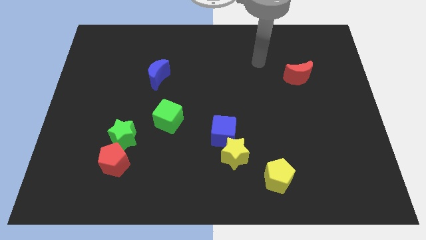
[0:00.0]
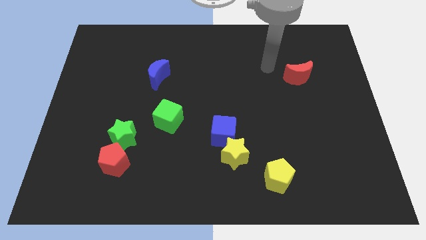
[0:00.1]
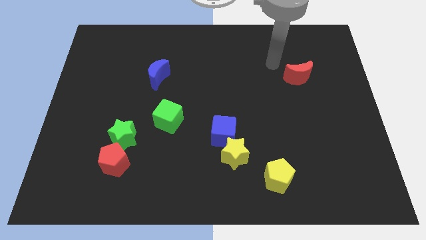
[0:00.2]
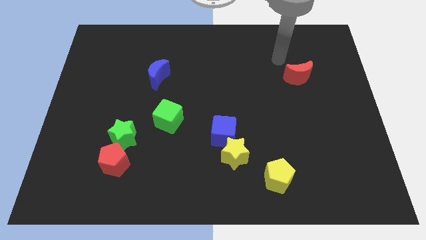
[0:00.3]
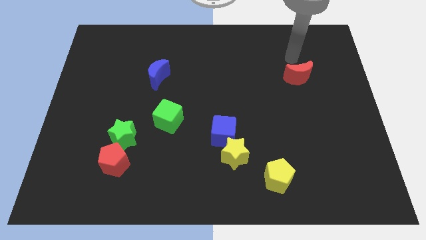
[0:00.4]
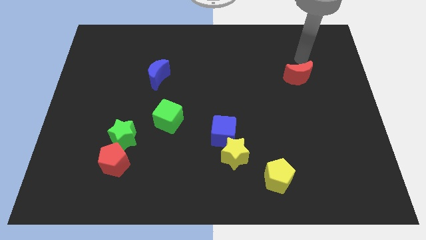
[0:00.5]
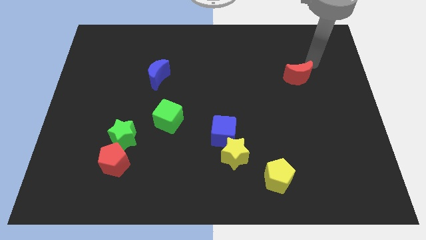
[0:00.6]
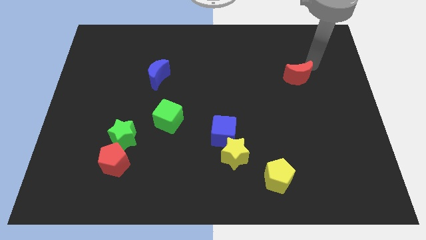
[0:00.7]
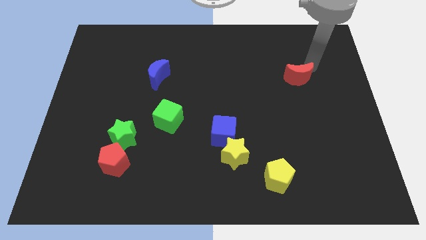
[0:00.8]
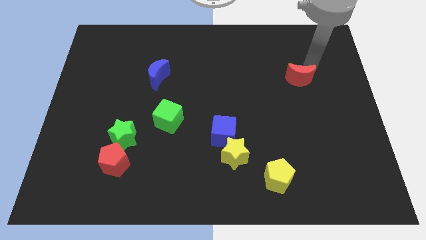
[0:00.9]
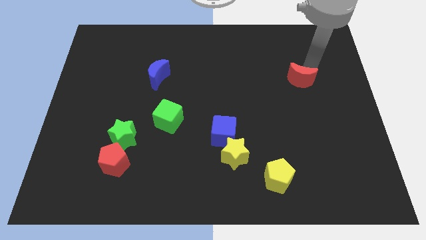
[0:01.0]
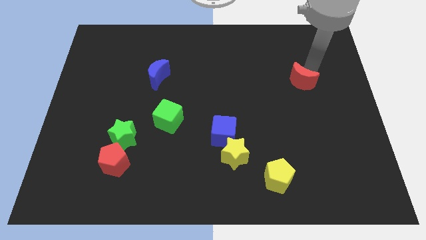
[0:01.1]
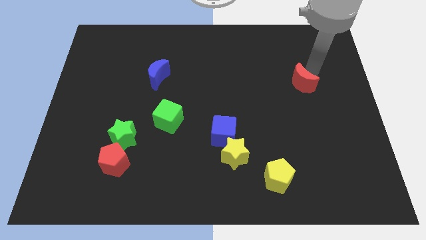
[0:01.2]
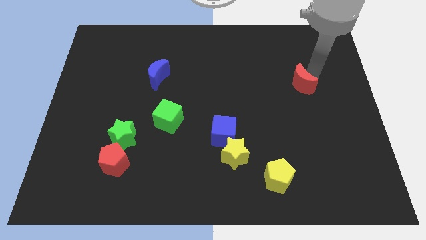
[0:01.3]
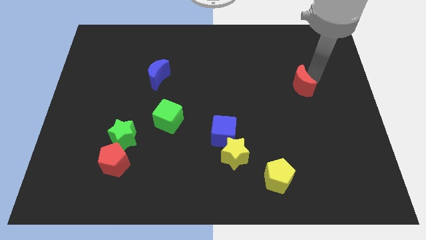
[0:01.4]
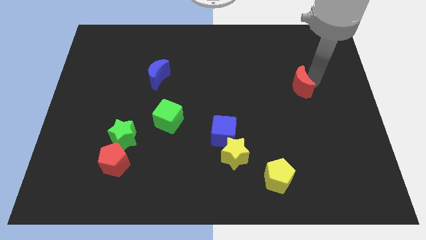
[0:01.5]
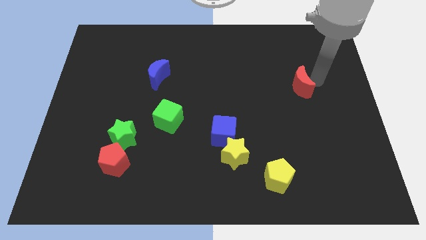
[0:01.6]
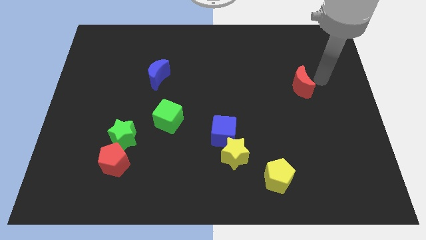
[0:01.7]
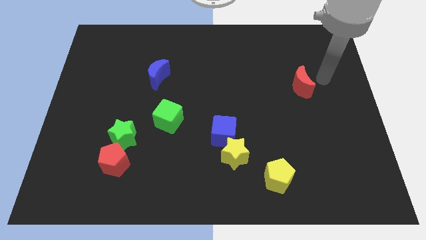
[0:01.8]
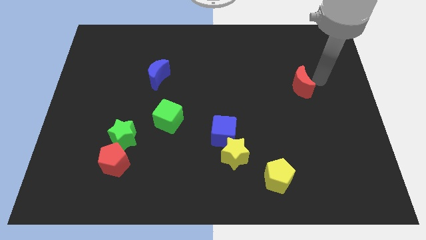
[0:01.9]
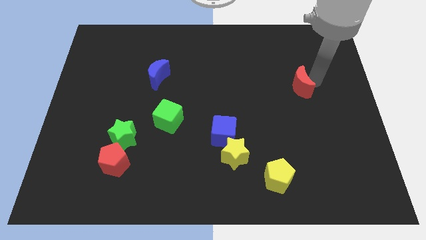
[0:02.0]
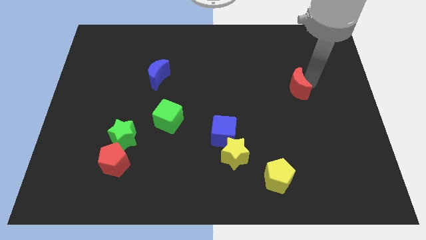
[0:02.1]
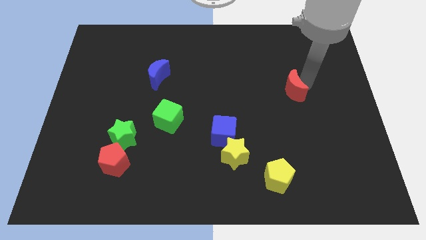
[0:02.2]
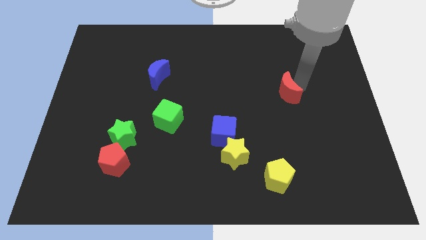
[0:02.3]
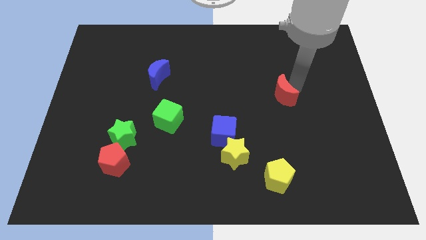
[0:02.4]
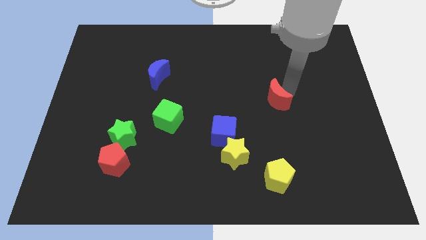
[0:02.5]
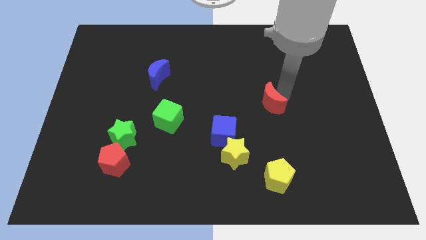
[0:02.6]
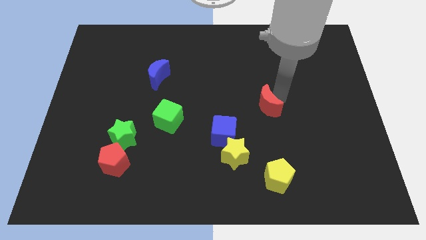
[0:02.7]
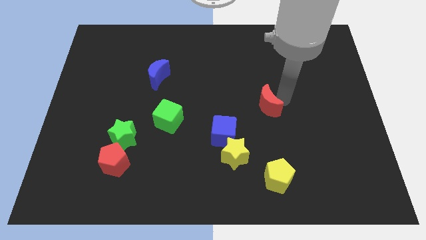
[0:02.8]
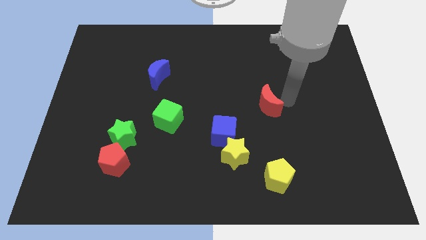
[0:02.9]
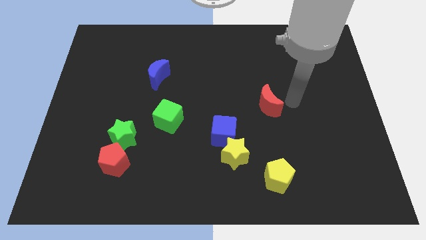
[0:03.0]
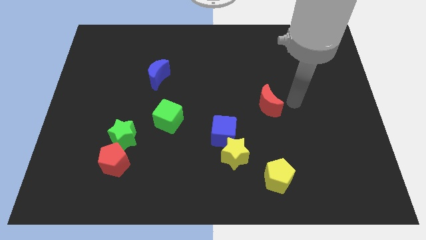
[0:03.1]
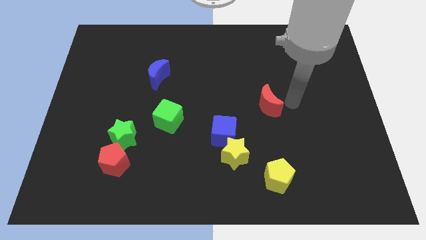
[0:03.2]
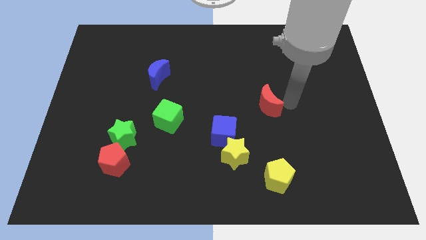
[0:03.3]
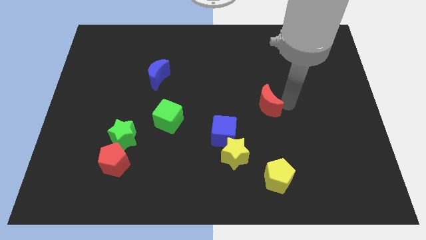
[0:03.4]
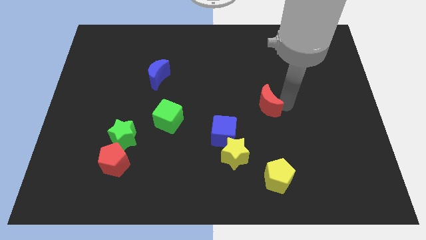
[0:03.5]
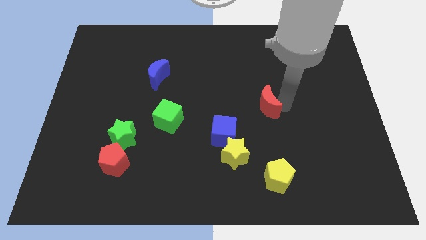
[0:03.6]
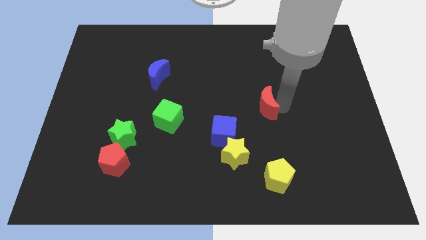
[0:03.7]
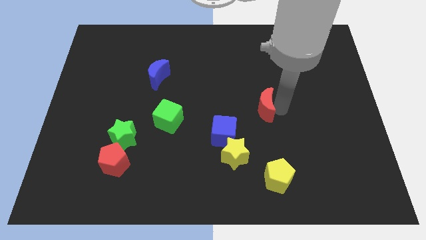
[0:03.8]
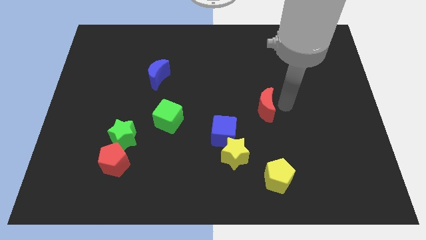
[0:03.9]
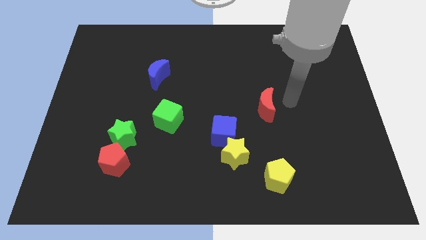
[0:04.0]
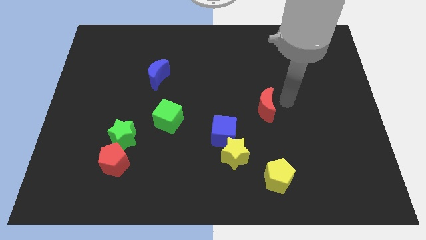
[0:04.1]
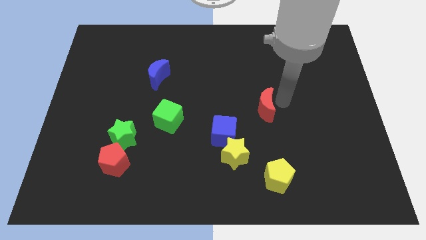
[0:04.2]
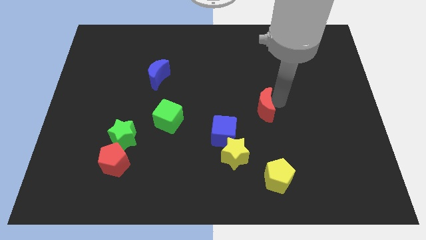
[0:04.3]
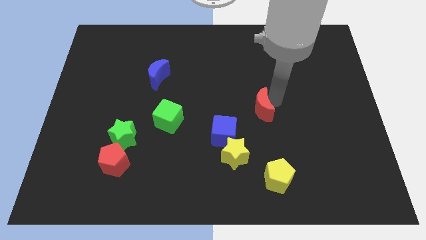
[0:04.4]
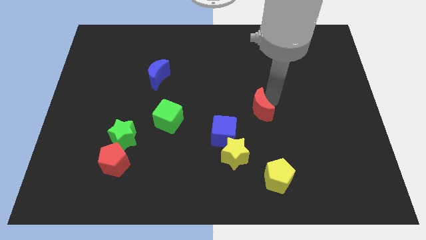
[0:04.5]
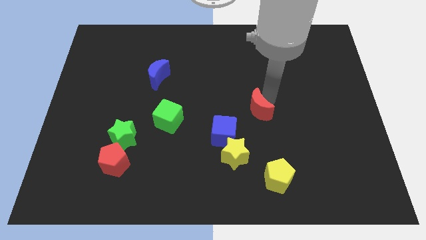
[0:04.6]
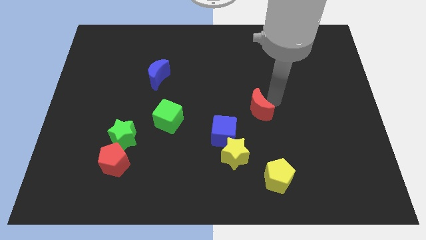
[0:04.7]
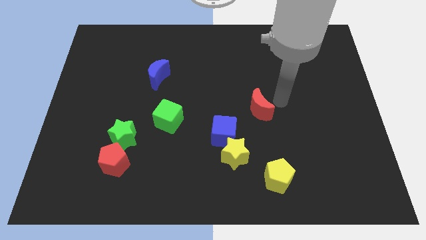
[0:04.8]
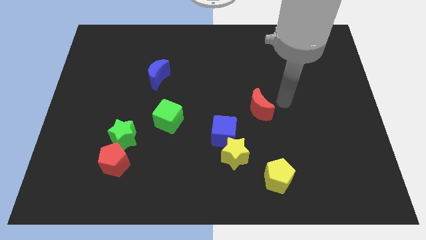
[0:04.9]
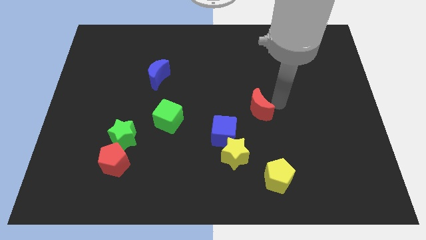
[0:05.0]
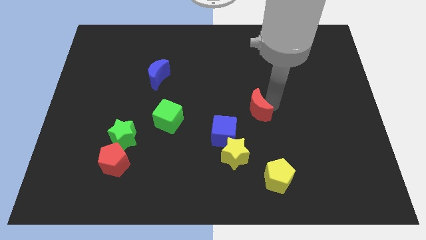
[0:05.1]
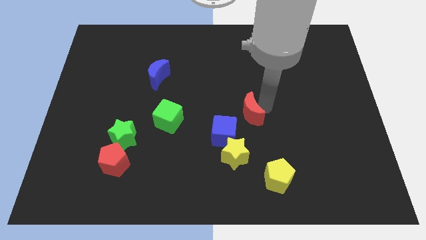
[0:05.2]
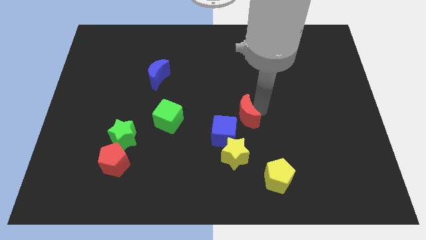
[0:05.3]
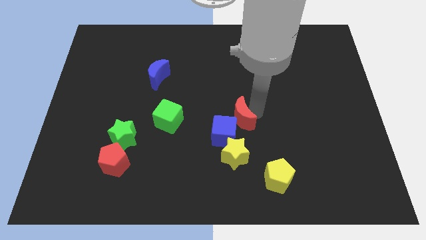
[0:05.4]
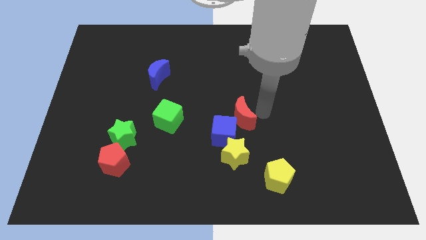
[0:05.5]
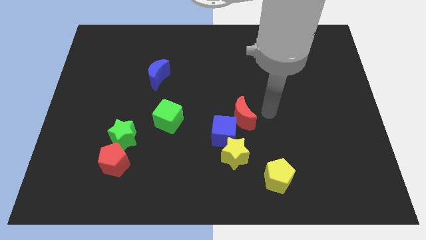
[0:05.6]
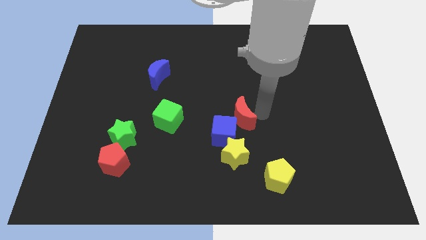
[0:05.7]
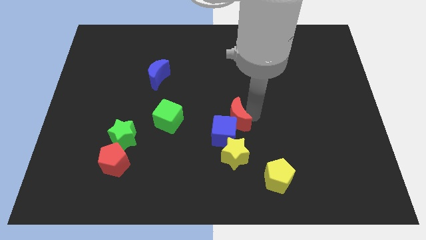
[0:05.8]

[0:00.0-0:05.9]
push the red moon diagonally down and left

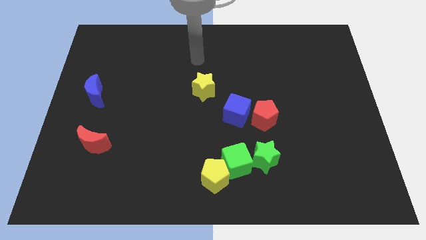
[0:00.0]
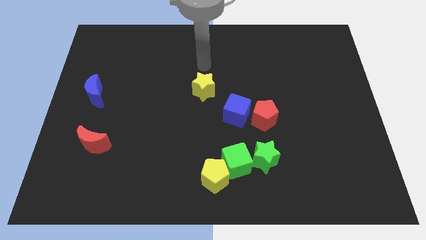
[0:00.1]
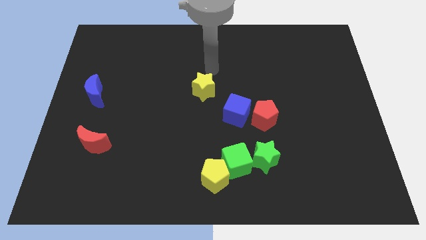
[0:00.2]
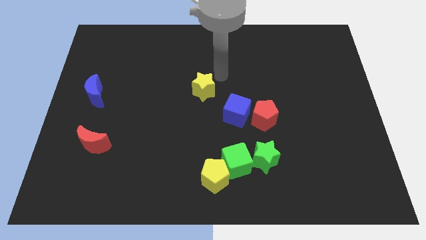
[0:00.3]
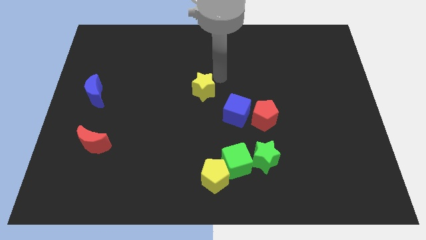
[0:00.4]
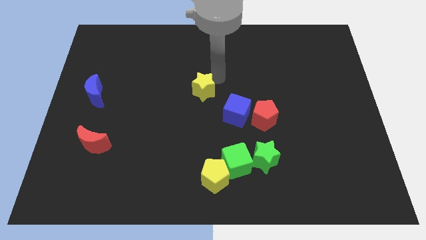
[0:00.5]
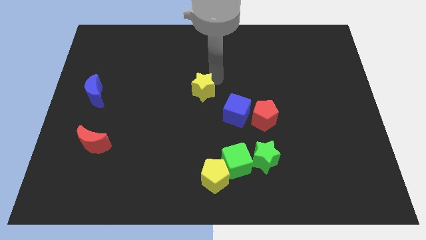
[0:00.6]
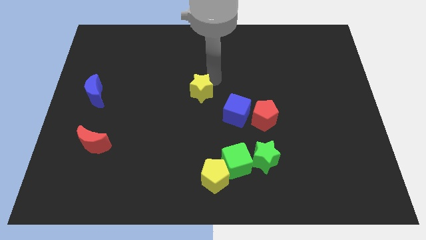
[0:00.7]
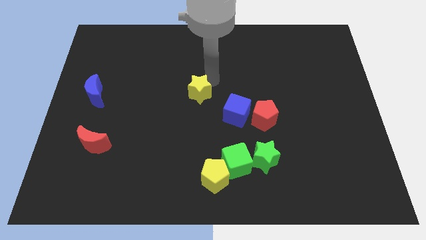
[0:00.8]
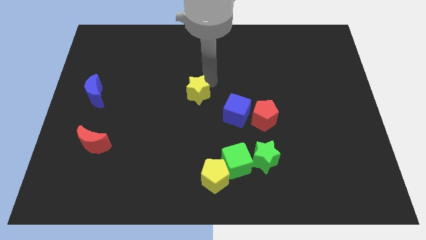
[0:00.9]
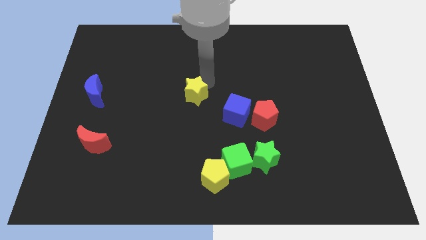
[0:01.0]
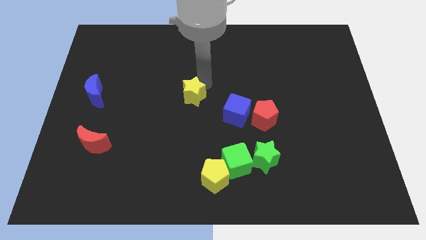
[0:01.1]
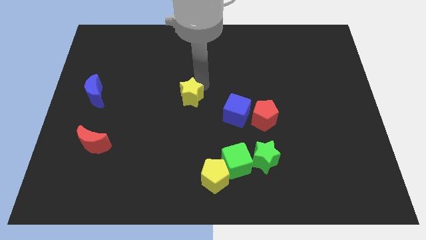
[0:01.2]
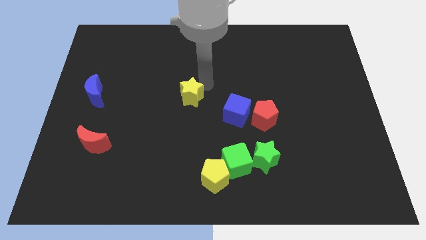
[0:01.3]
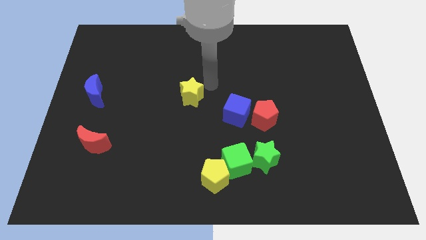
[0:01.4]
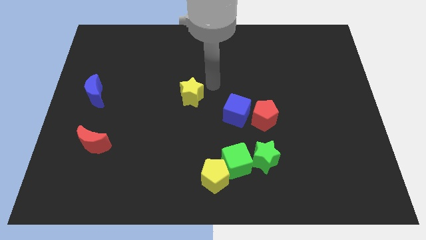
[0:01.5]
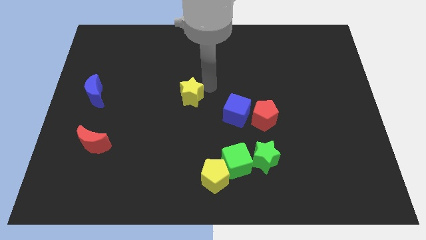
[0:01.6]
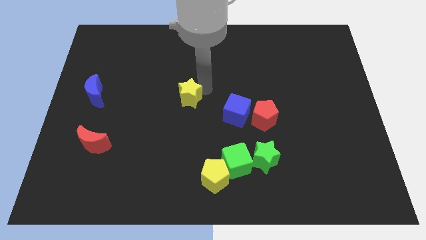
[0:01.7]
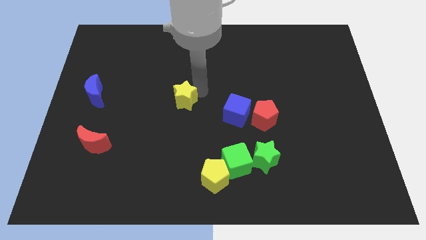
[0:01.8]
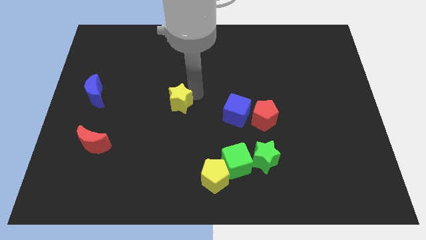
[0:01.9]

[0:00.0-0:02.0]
slightly move the yellow star down and to the left diagonally

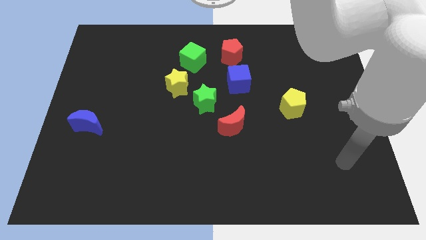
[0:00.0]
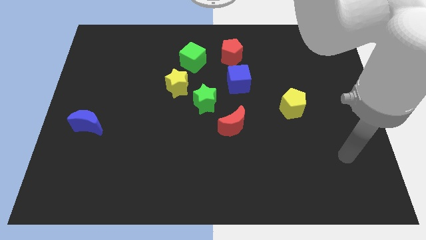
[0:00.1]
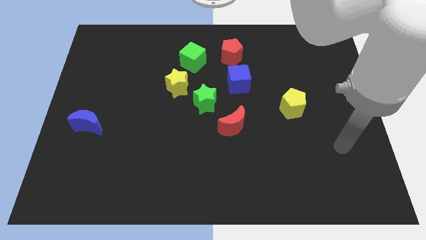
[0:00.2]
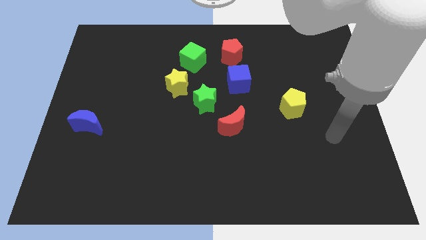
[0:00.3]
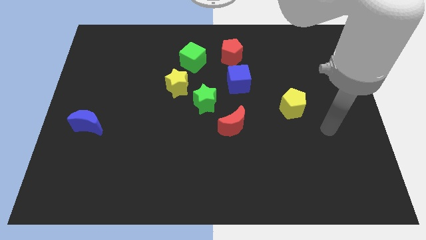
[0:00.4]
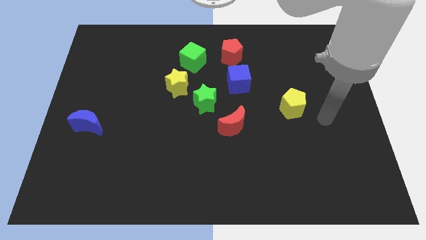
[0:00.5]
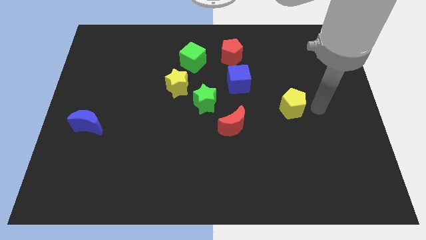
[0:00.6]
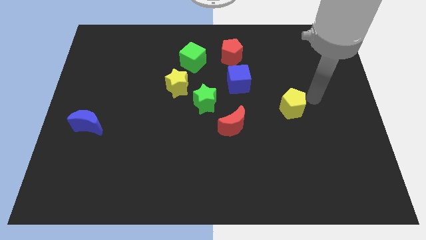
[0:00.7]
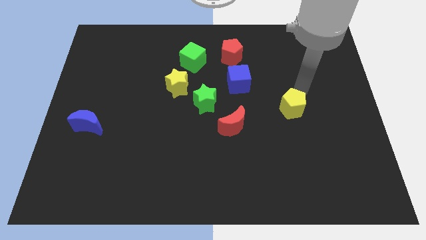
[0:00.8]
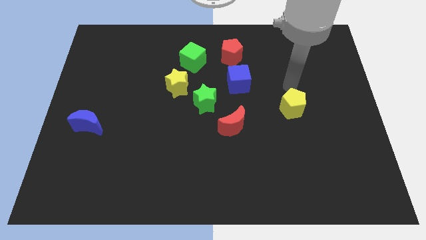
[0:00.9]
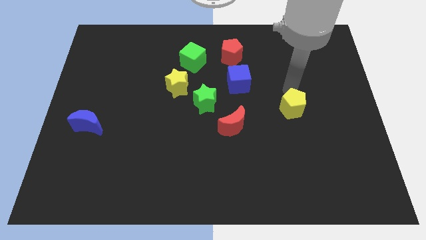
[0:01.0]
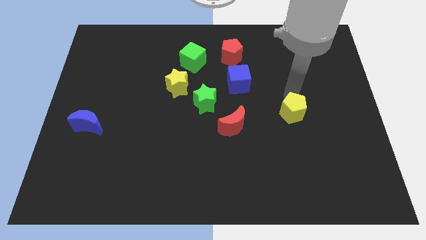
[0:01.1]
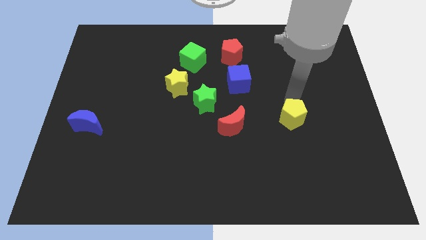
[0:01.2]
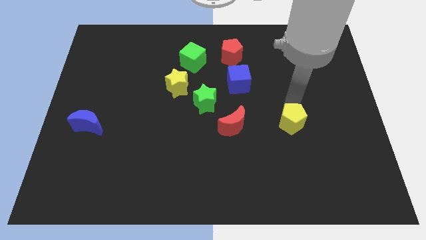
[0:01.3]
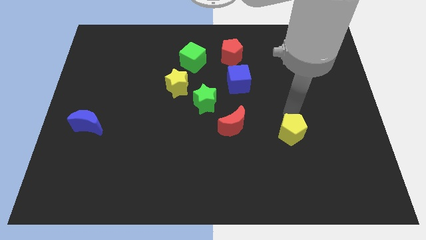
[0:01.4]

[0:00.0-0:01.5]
push the yellow pentagon slightly downwards
